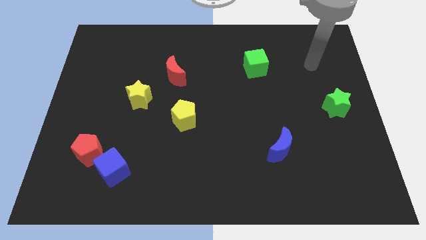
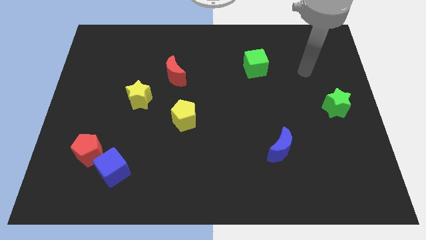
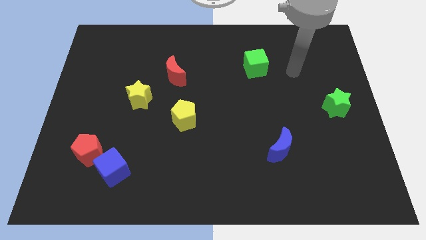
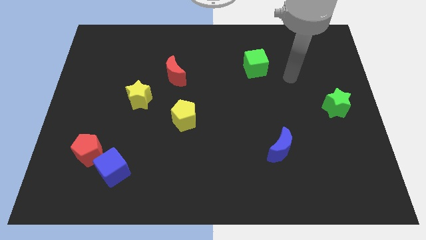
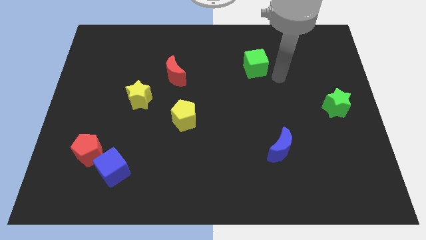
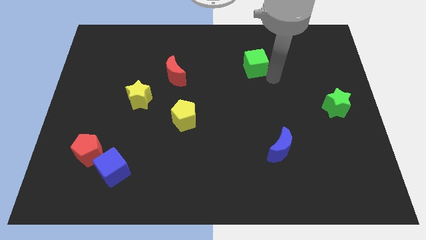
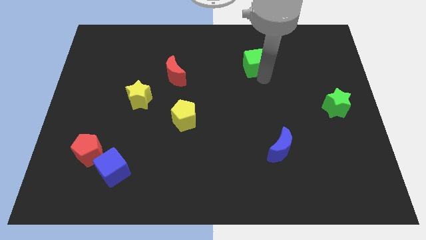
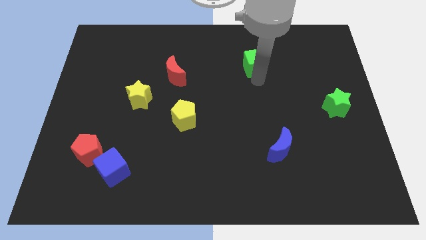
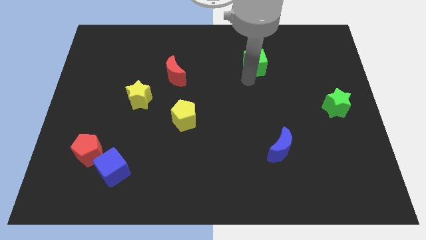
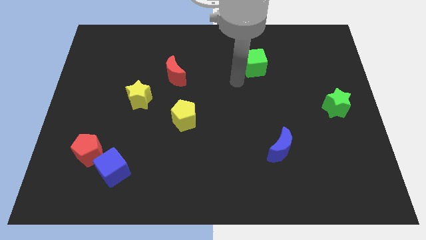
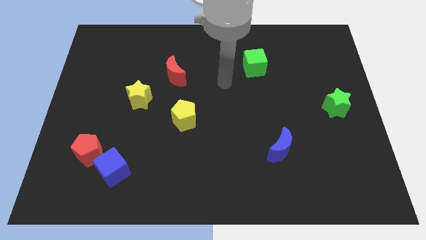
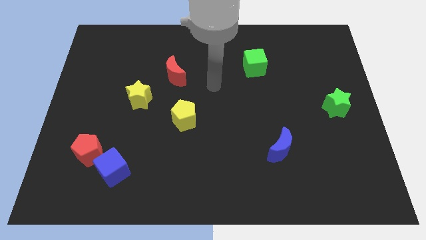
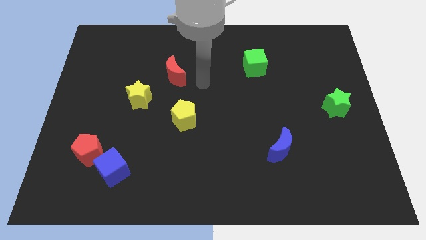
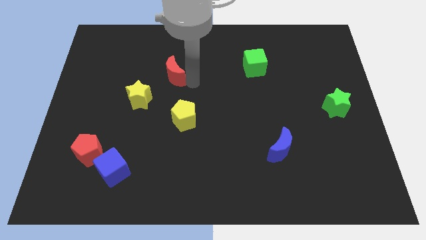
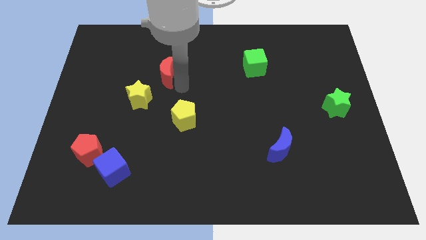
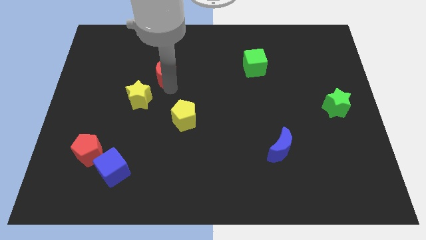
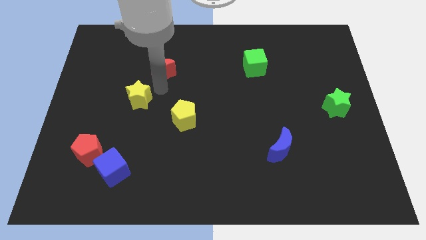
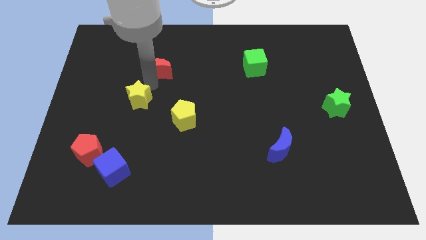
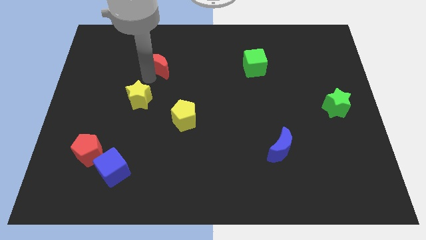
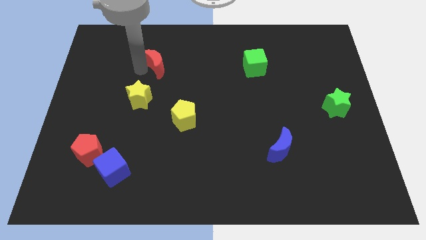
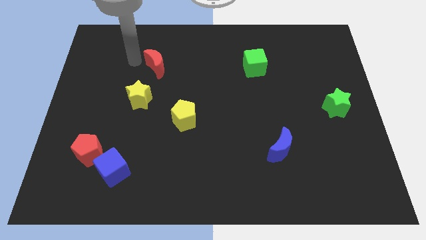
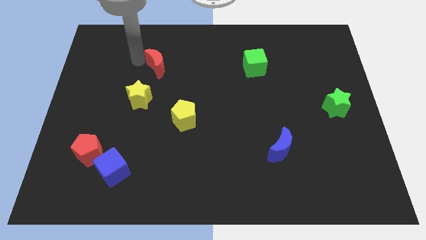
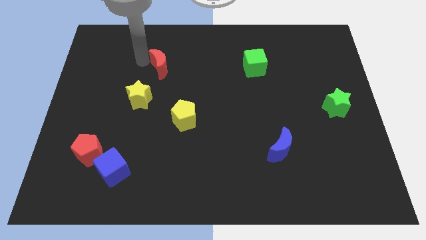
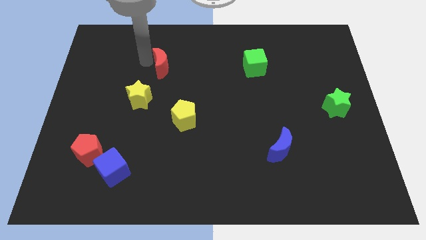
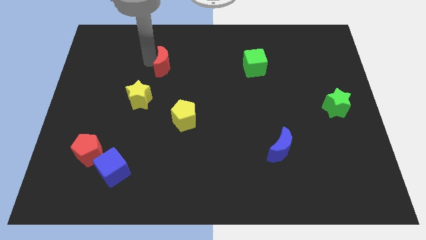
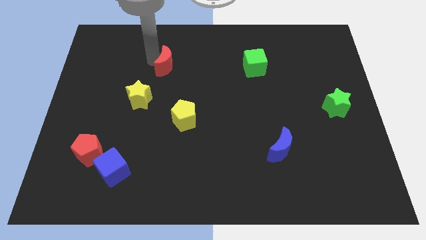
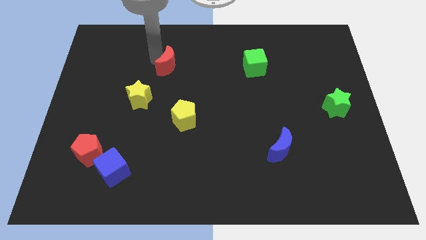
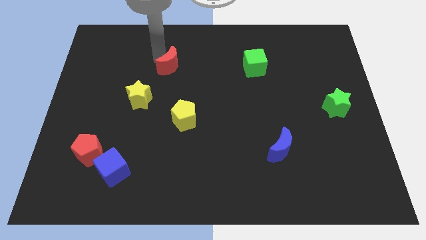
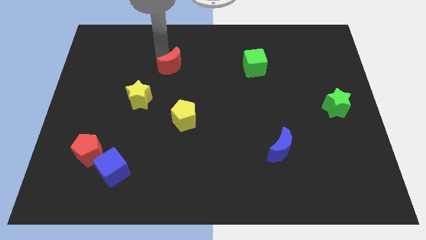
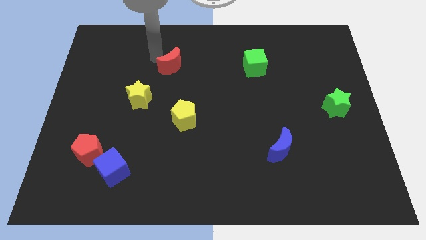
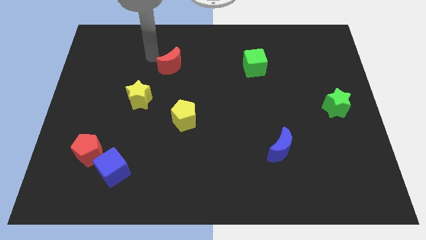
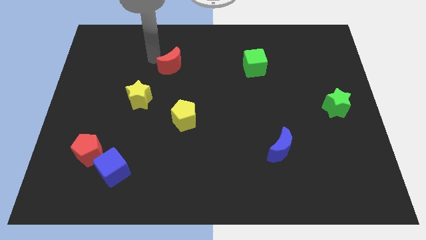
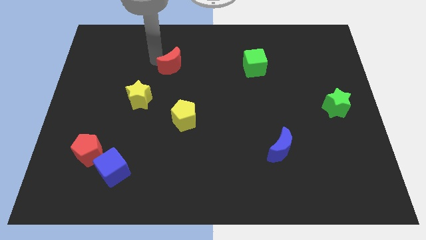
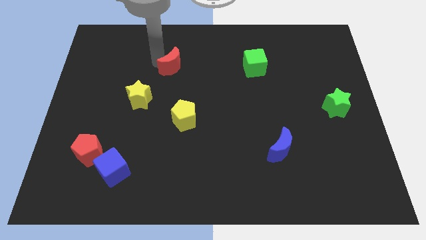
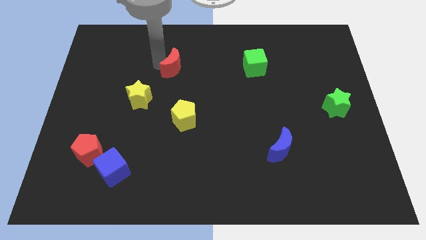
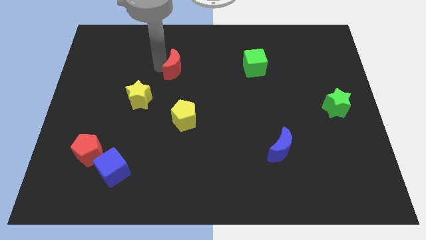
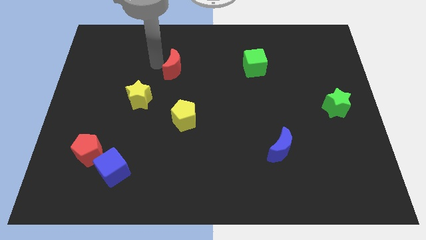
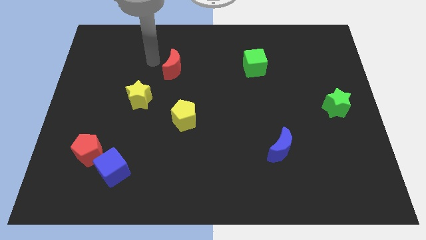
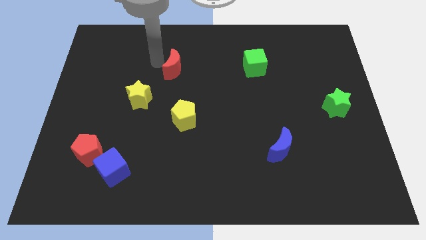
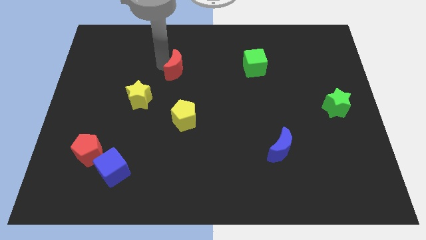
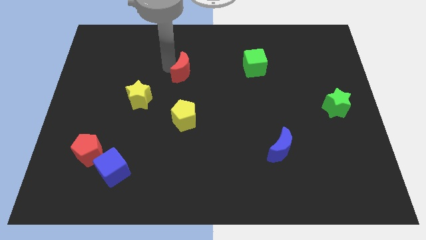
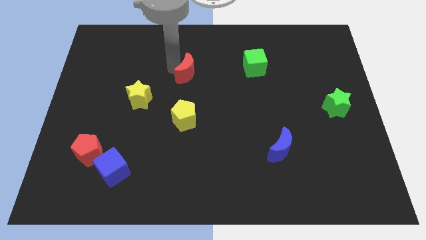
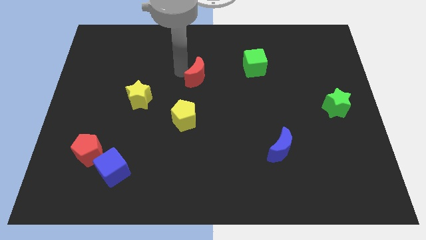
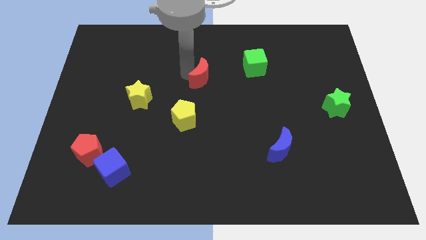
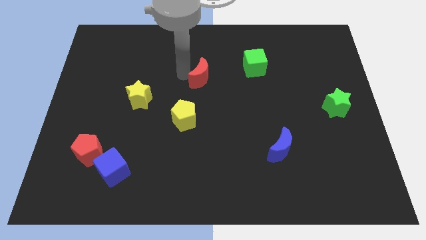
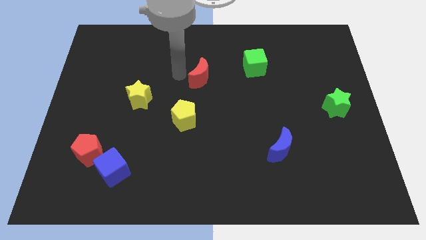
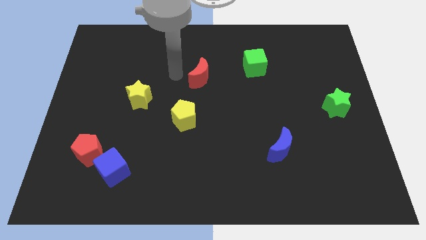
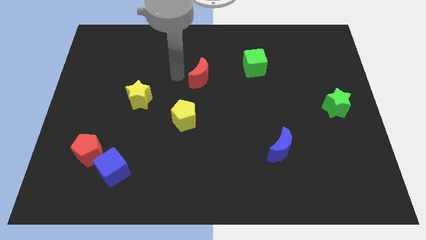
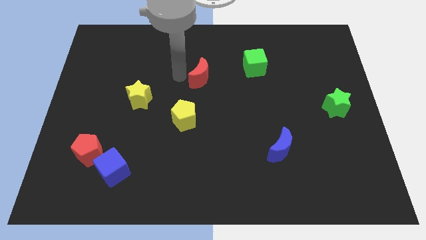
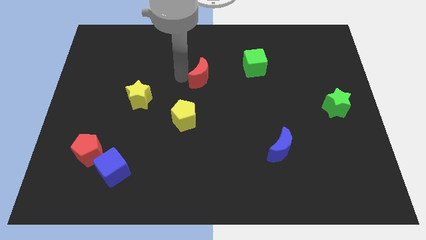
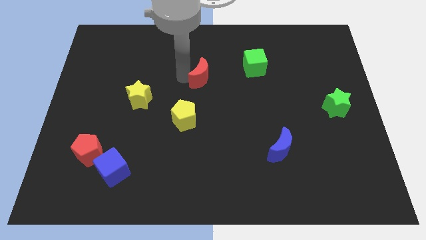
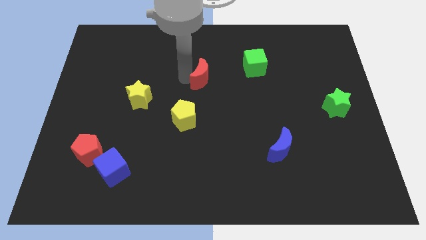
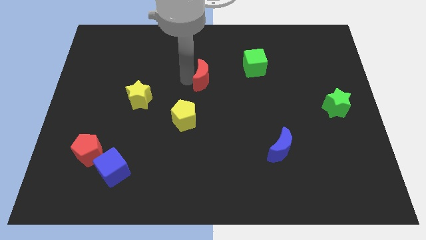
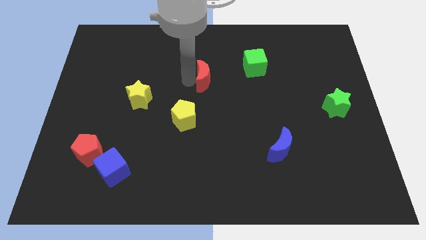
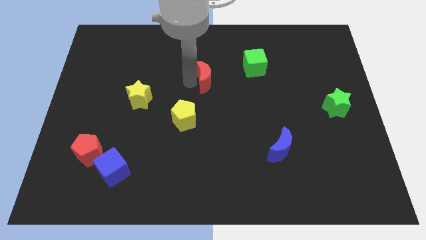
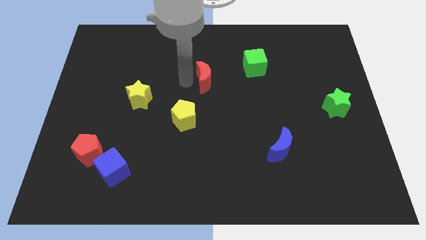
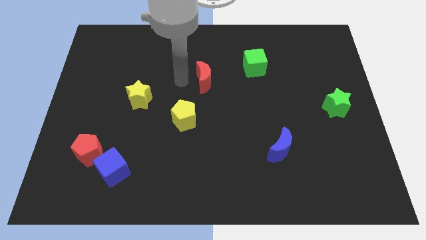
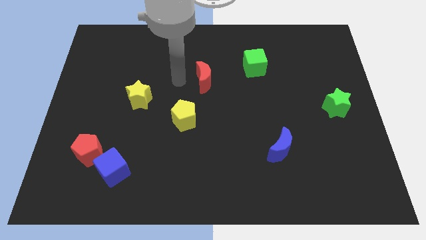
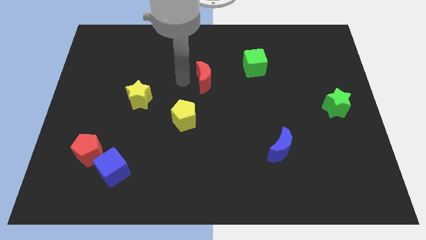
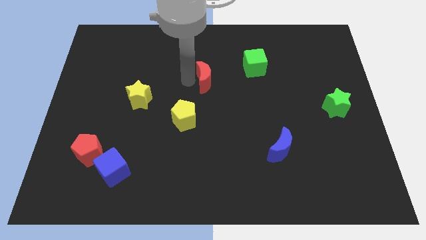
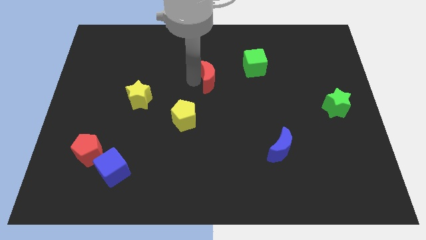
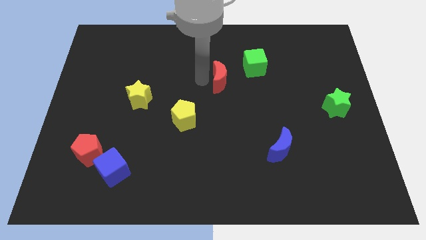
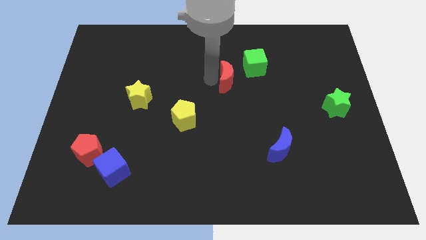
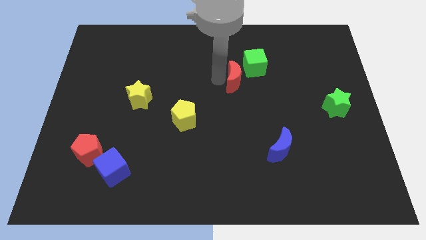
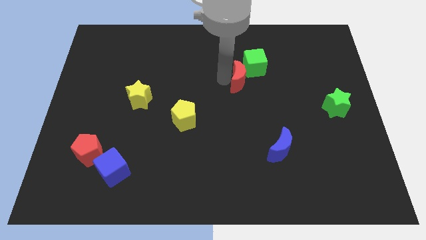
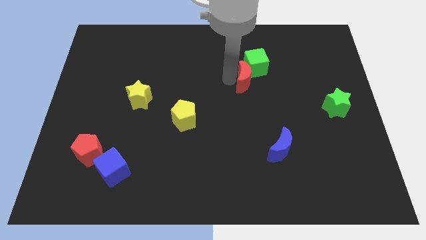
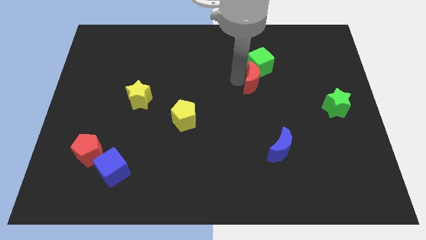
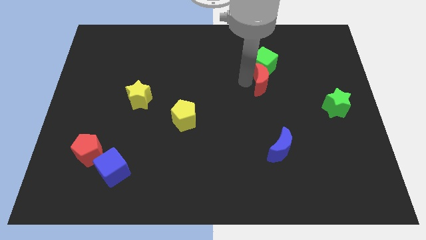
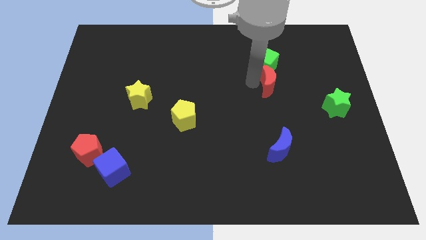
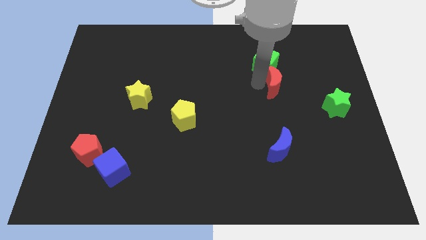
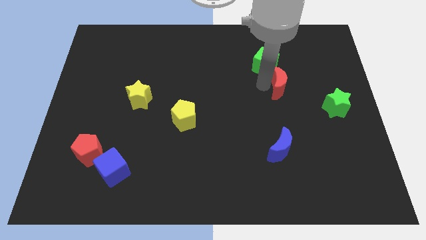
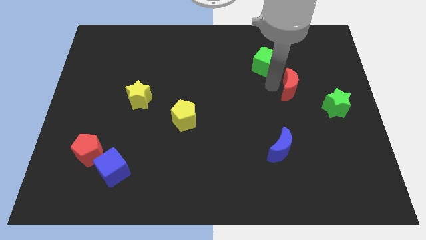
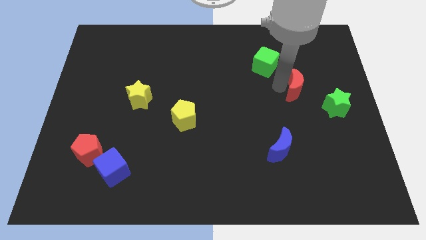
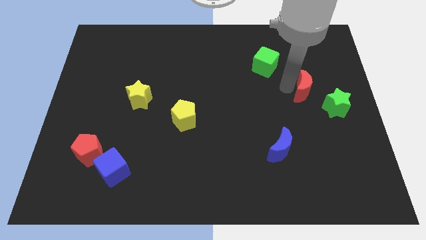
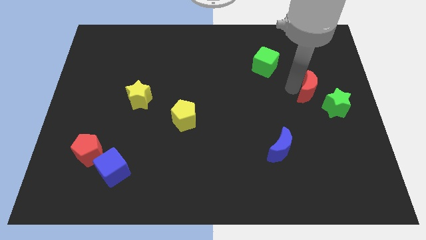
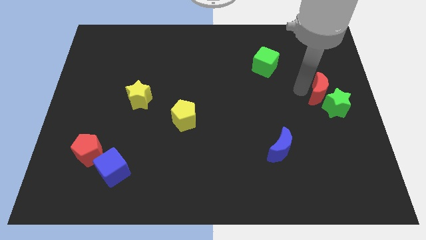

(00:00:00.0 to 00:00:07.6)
push the red moon to the right side
